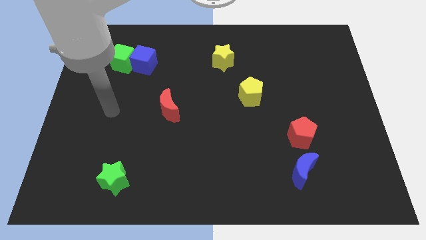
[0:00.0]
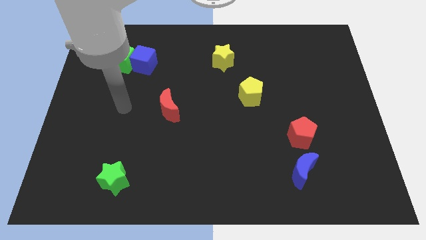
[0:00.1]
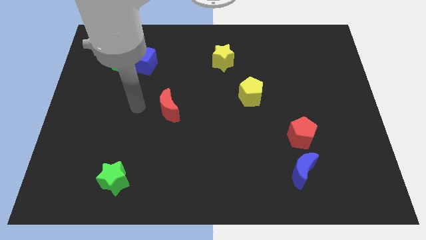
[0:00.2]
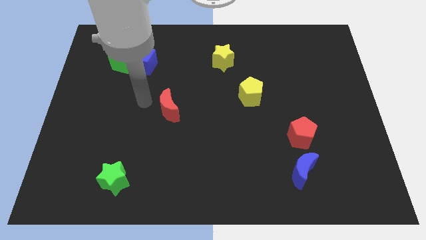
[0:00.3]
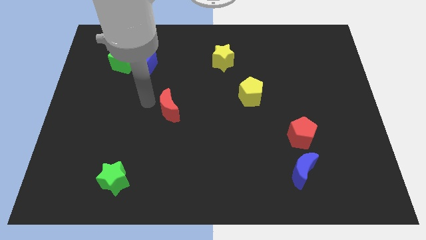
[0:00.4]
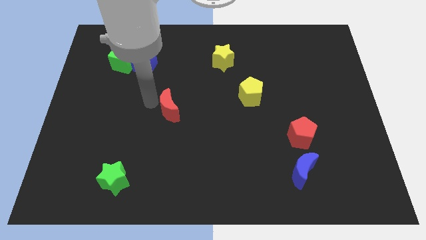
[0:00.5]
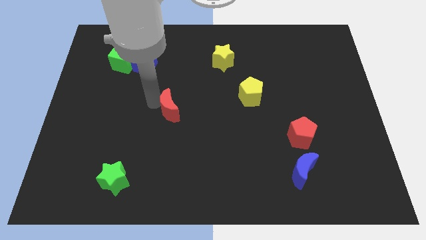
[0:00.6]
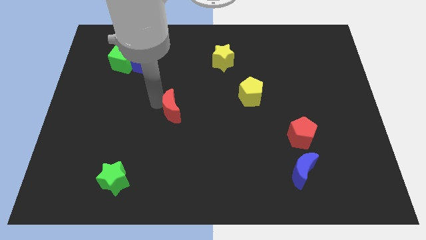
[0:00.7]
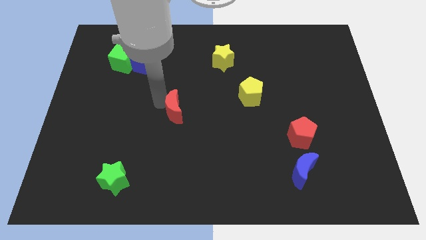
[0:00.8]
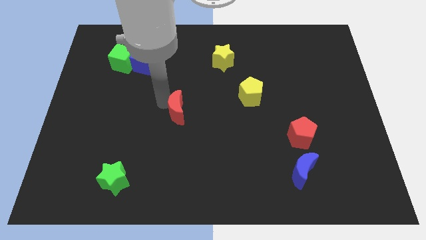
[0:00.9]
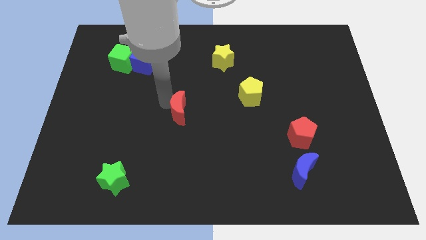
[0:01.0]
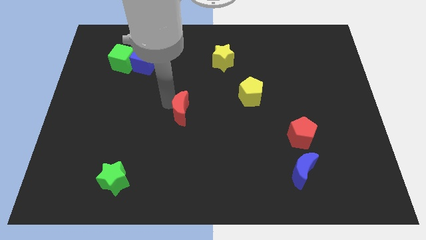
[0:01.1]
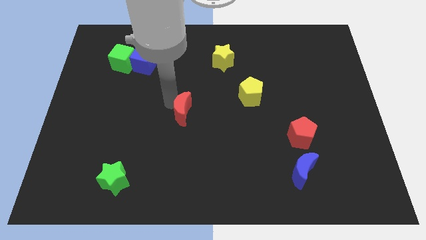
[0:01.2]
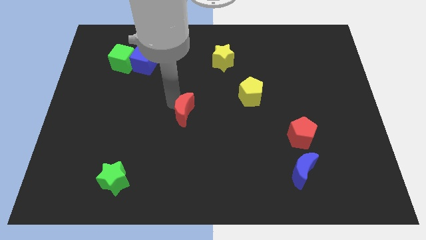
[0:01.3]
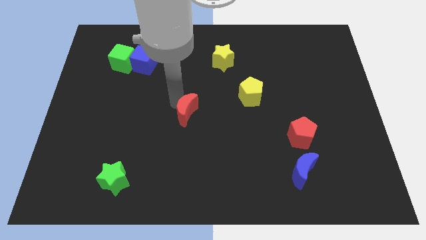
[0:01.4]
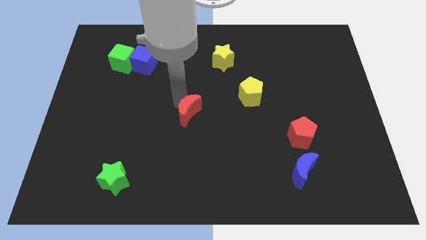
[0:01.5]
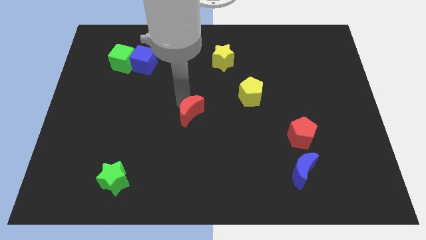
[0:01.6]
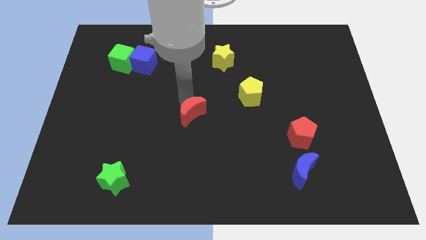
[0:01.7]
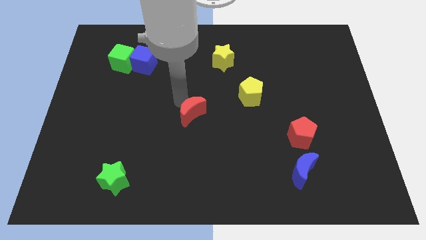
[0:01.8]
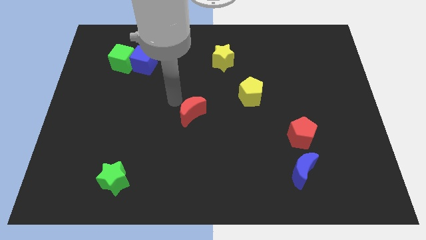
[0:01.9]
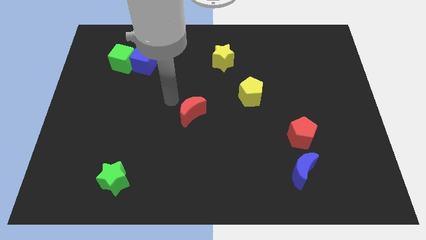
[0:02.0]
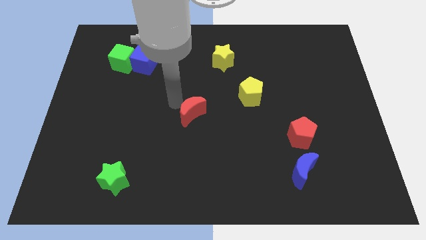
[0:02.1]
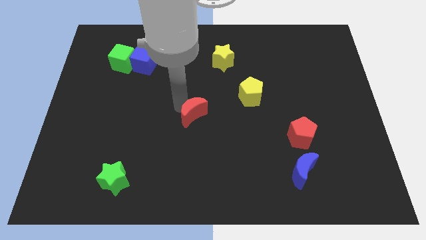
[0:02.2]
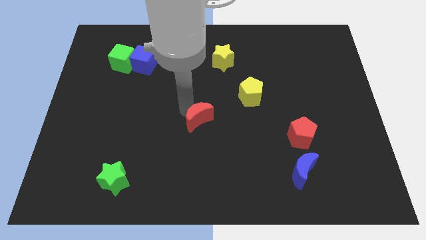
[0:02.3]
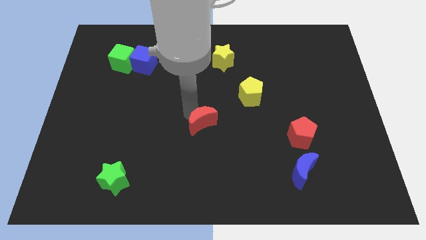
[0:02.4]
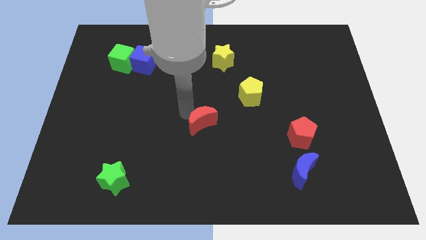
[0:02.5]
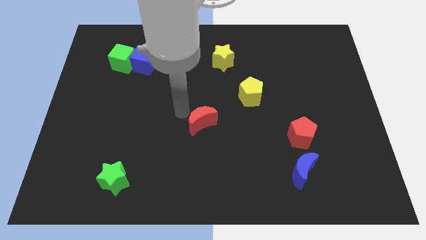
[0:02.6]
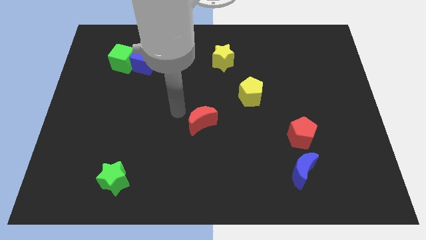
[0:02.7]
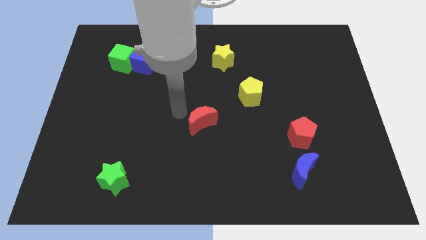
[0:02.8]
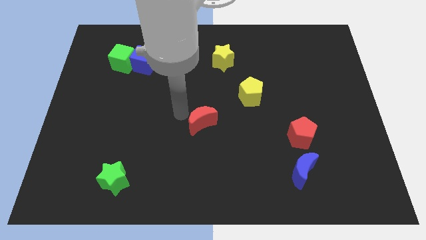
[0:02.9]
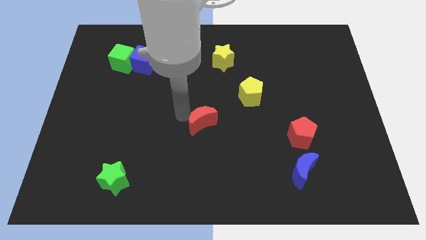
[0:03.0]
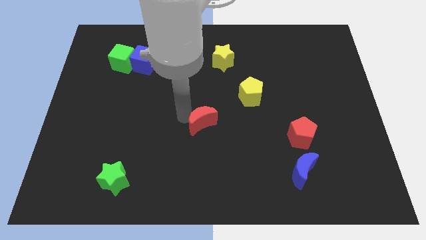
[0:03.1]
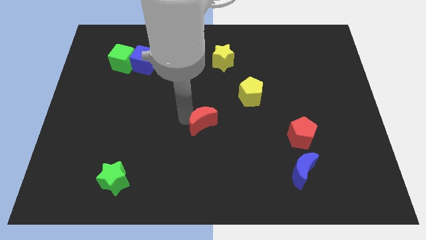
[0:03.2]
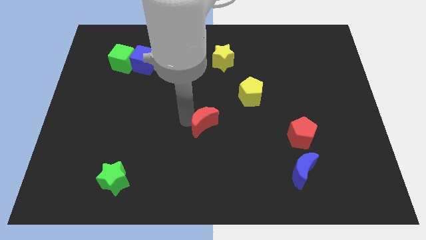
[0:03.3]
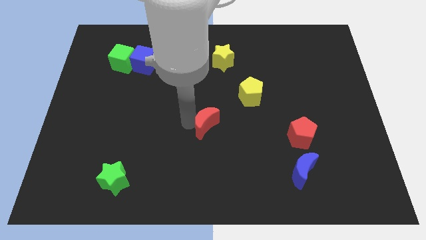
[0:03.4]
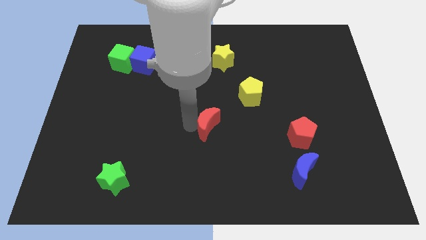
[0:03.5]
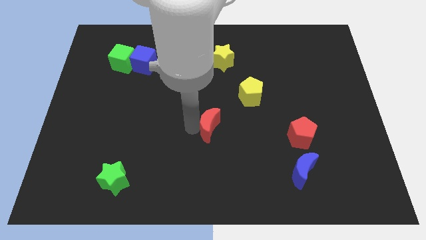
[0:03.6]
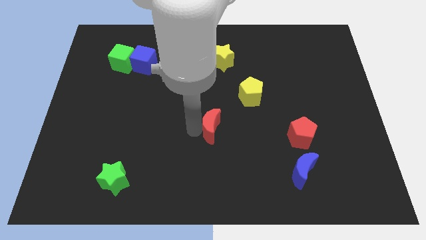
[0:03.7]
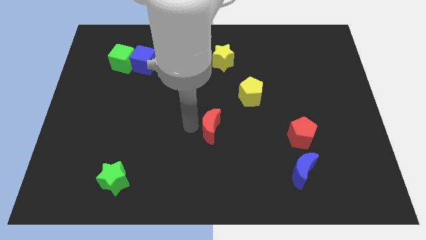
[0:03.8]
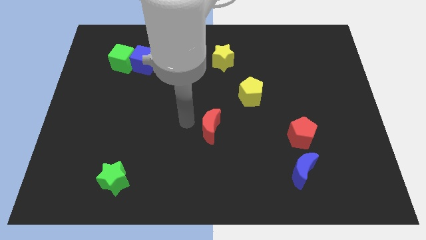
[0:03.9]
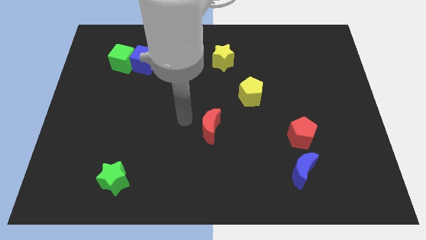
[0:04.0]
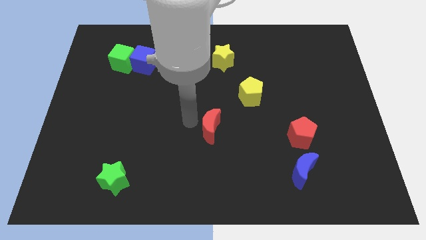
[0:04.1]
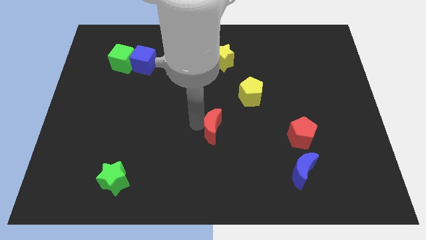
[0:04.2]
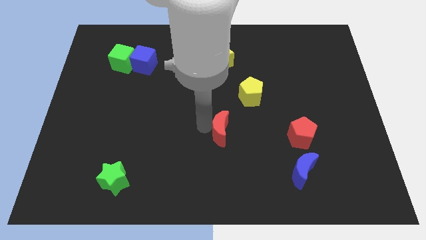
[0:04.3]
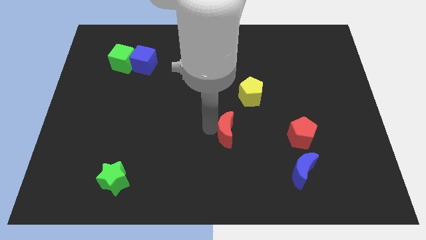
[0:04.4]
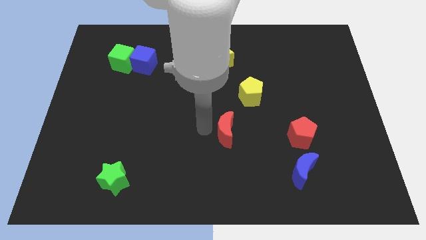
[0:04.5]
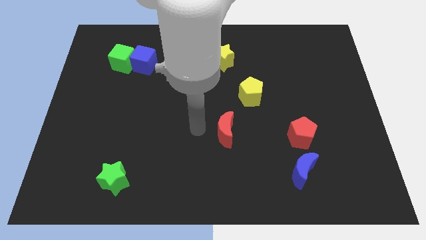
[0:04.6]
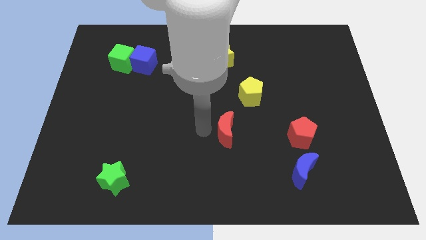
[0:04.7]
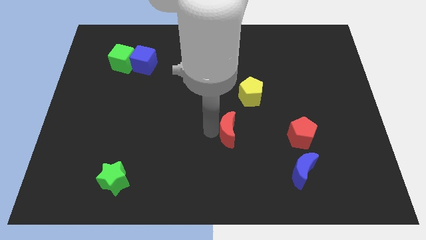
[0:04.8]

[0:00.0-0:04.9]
push the red moon to the left side of the red pentagon

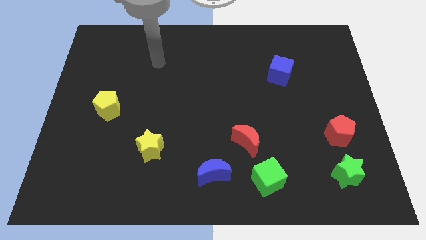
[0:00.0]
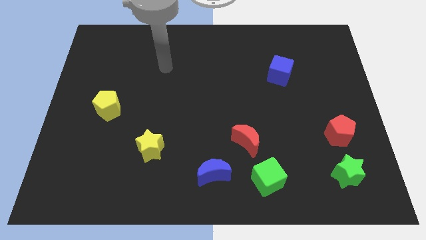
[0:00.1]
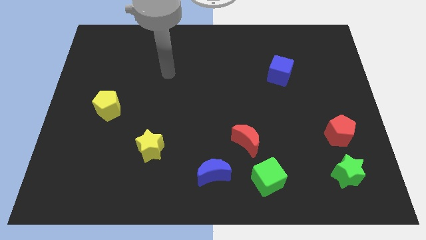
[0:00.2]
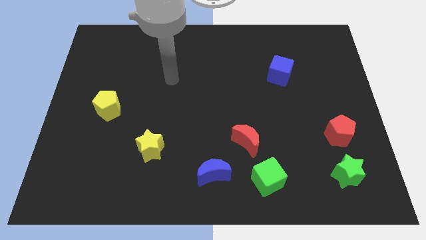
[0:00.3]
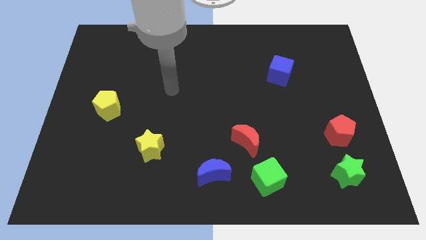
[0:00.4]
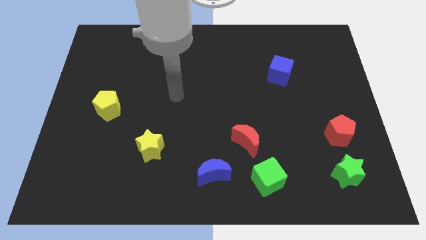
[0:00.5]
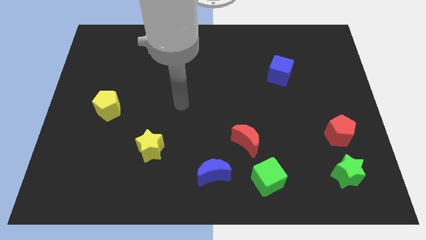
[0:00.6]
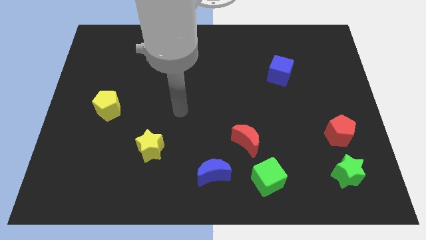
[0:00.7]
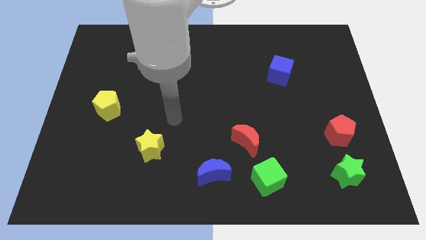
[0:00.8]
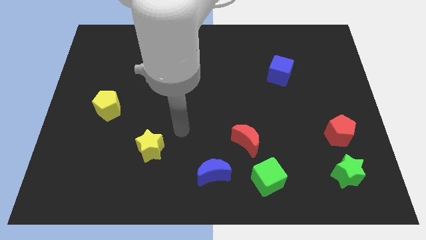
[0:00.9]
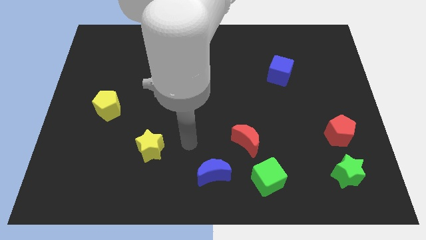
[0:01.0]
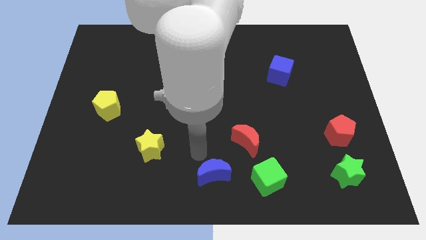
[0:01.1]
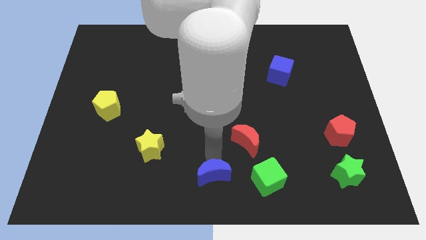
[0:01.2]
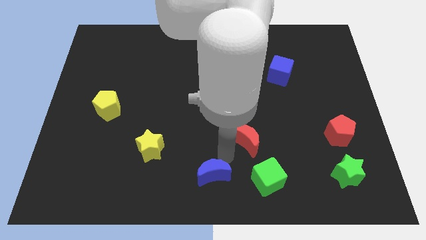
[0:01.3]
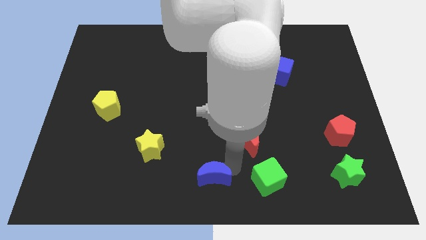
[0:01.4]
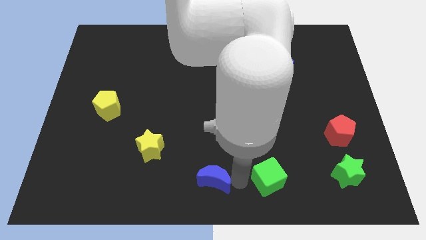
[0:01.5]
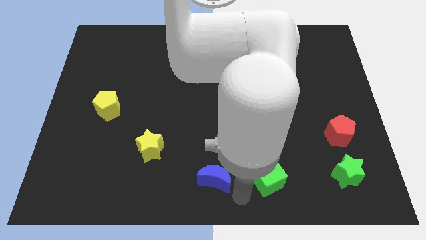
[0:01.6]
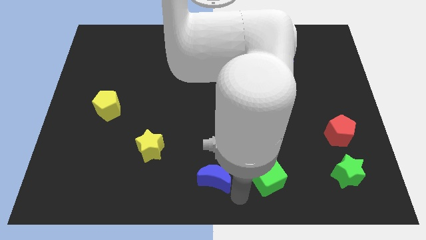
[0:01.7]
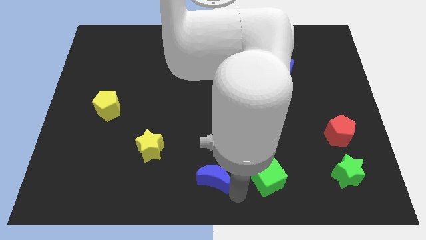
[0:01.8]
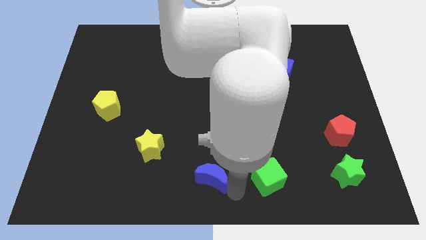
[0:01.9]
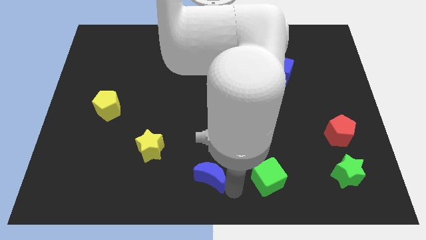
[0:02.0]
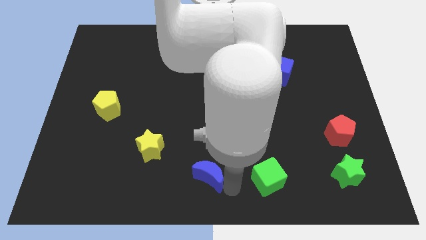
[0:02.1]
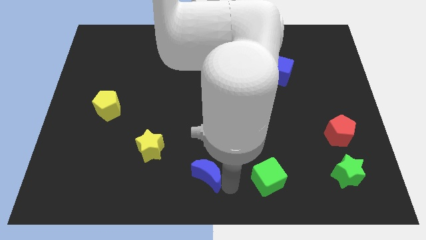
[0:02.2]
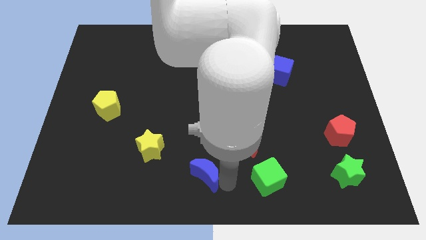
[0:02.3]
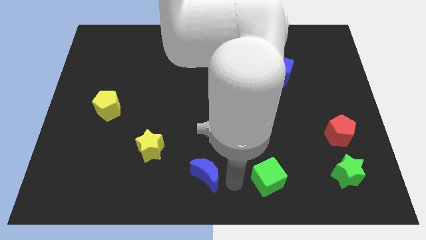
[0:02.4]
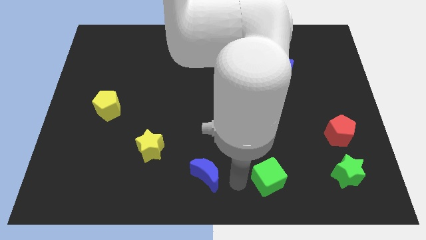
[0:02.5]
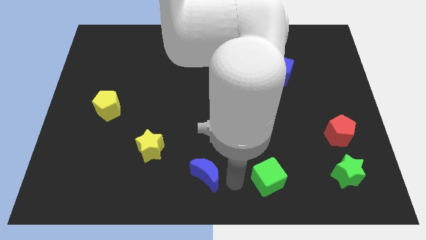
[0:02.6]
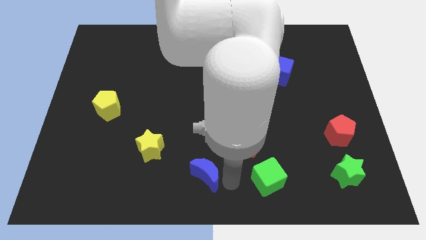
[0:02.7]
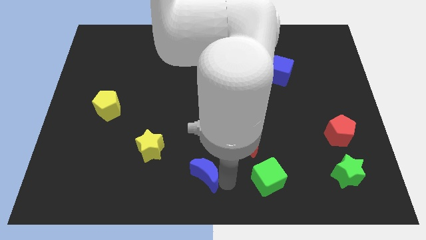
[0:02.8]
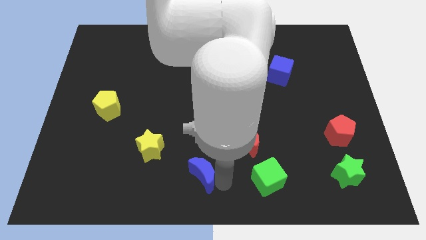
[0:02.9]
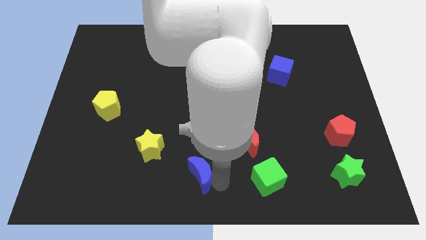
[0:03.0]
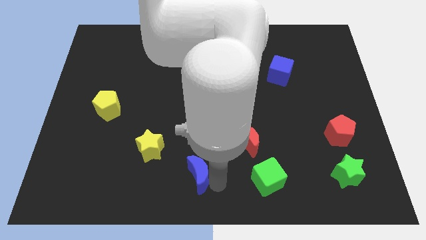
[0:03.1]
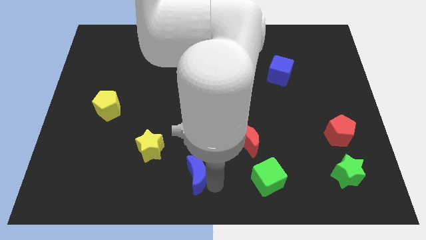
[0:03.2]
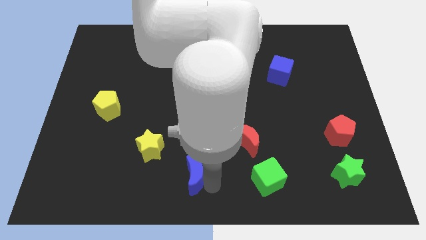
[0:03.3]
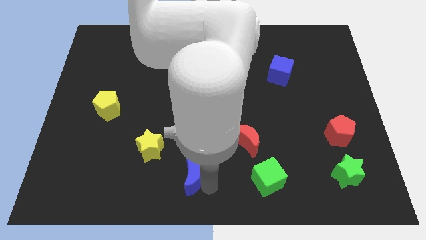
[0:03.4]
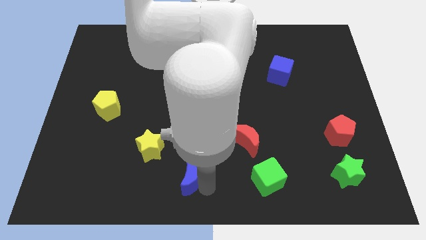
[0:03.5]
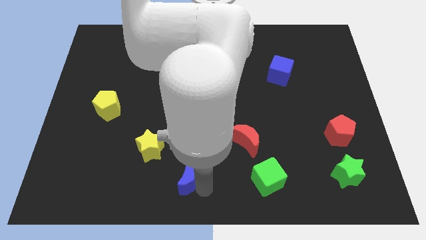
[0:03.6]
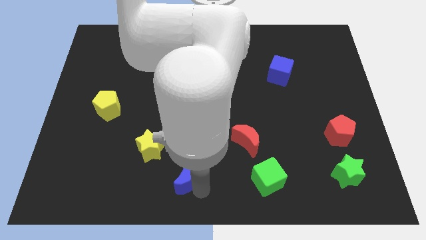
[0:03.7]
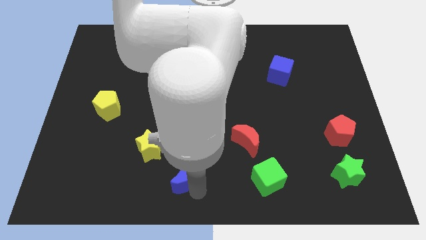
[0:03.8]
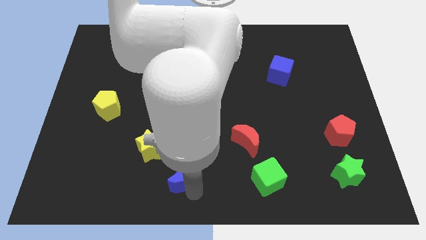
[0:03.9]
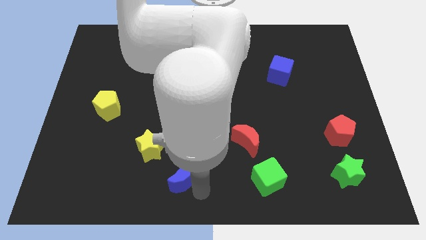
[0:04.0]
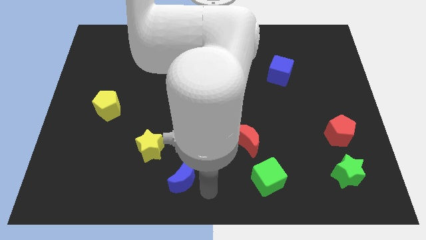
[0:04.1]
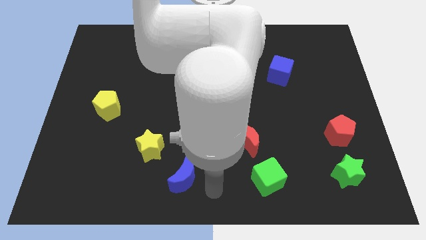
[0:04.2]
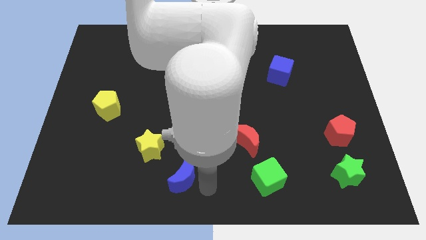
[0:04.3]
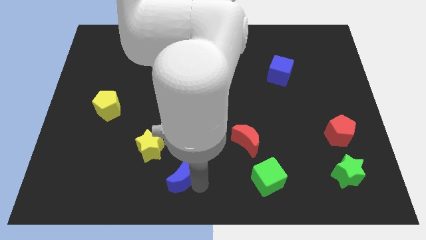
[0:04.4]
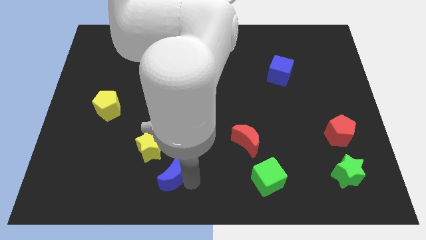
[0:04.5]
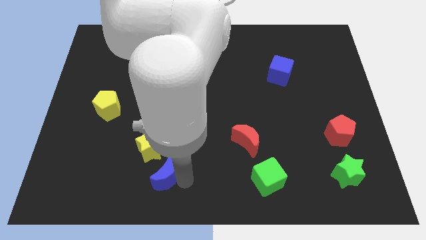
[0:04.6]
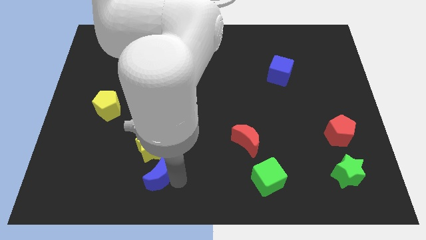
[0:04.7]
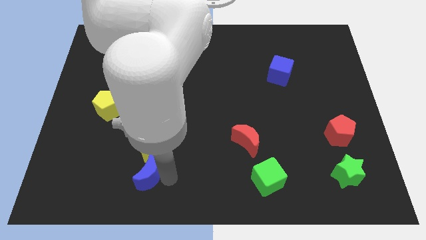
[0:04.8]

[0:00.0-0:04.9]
push the blue moon to the bottom left side of the yellow star
